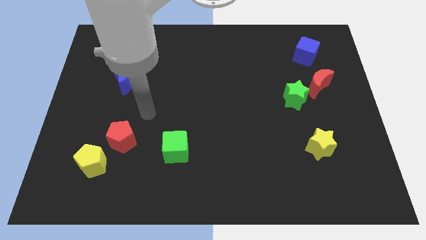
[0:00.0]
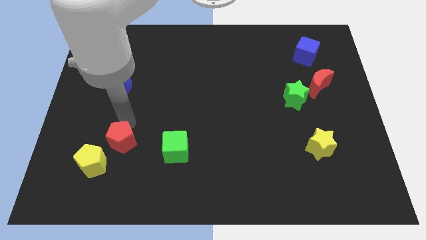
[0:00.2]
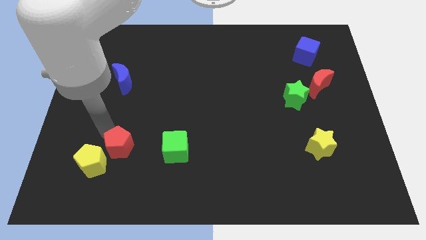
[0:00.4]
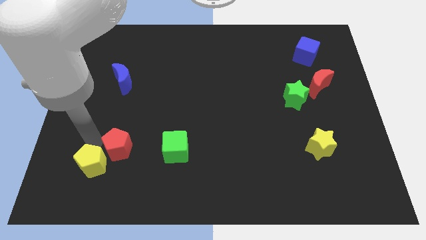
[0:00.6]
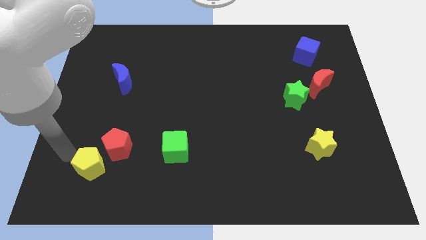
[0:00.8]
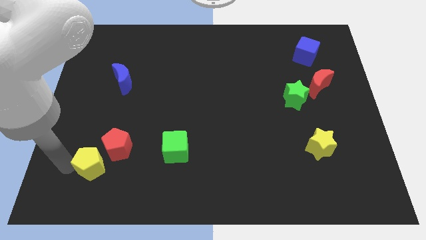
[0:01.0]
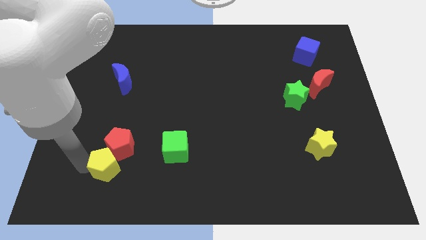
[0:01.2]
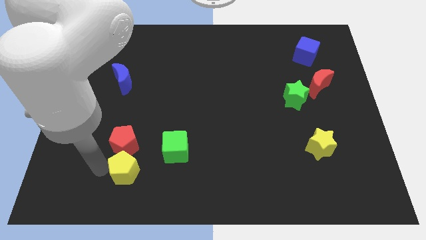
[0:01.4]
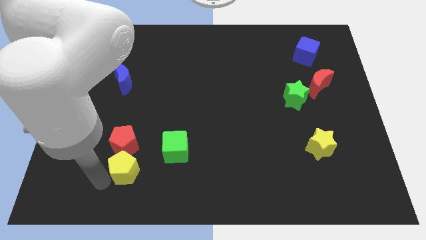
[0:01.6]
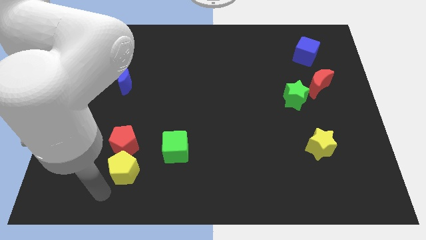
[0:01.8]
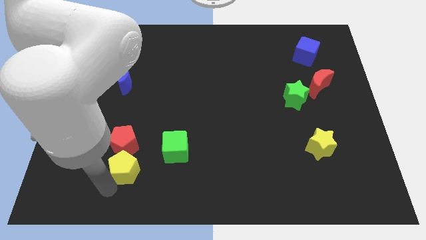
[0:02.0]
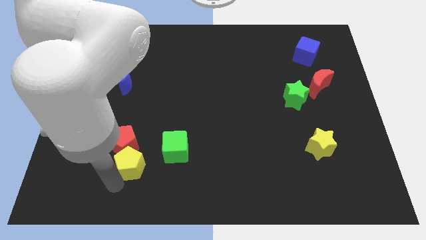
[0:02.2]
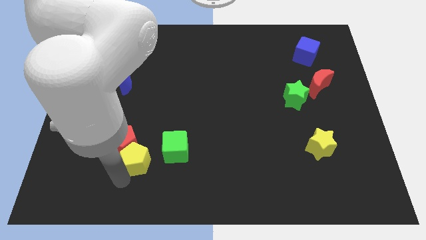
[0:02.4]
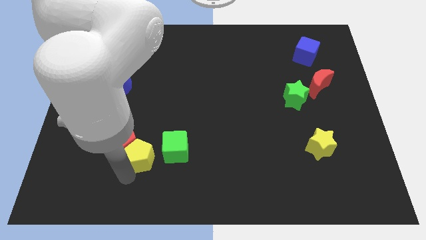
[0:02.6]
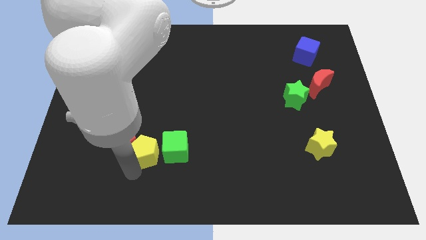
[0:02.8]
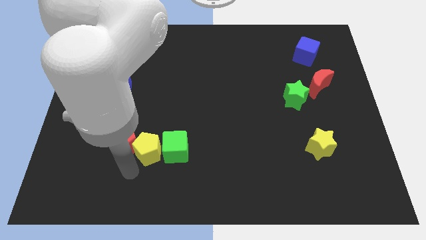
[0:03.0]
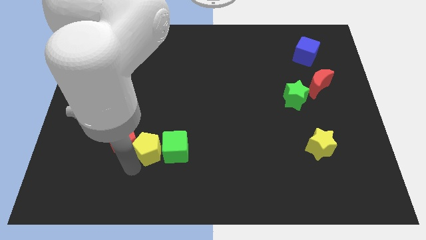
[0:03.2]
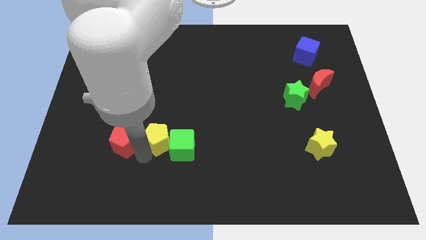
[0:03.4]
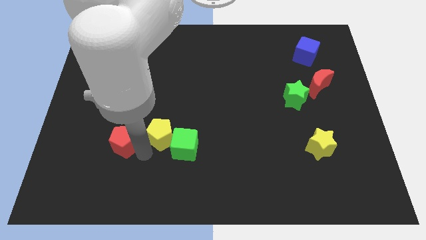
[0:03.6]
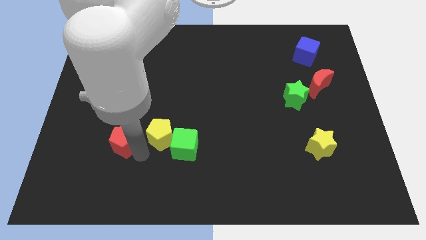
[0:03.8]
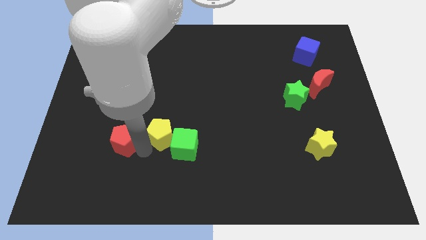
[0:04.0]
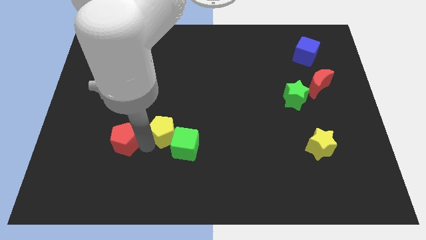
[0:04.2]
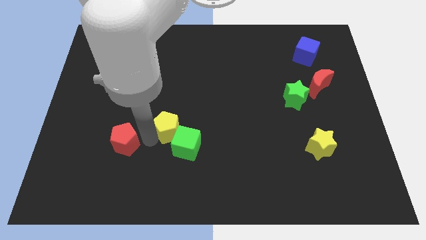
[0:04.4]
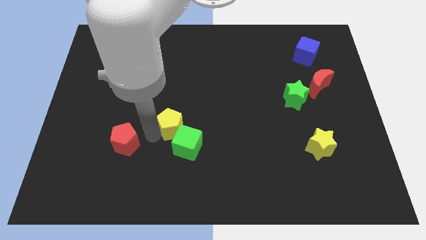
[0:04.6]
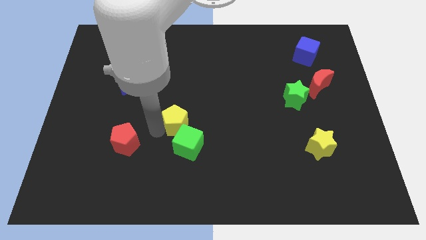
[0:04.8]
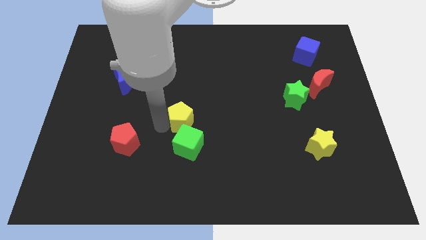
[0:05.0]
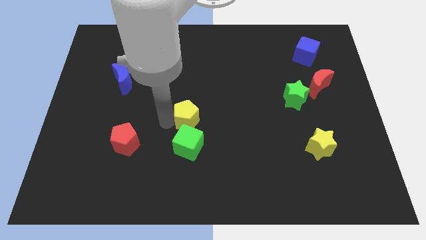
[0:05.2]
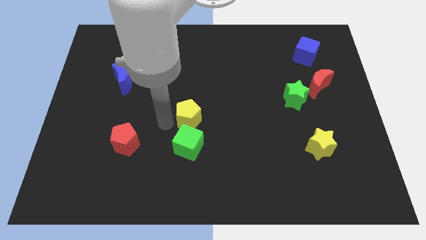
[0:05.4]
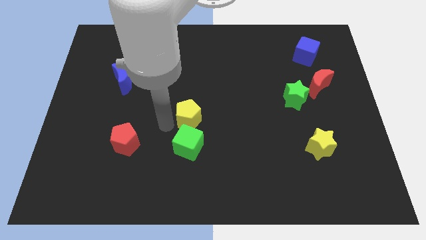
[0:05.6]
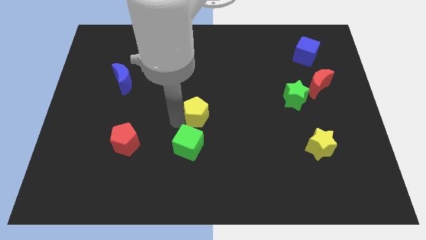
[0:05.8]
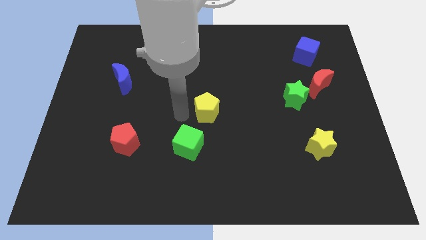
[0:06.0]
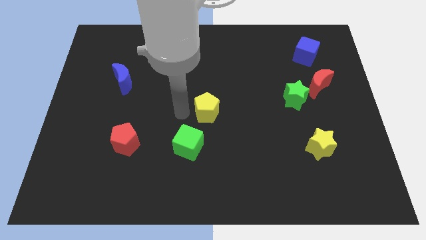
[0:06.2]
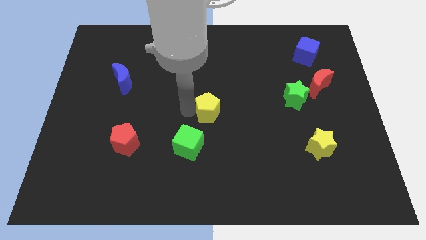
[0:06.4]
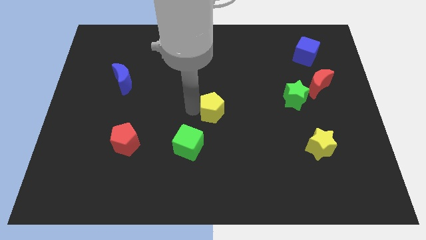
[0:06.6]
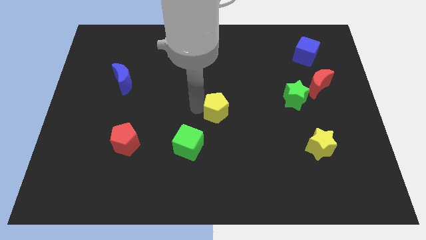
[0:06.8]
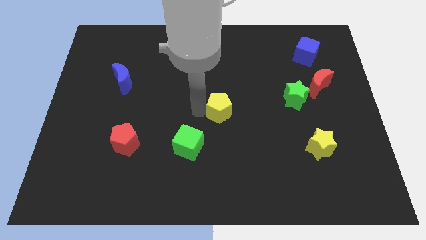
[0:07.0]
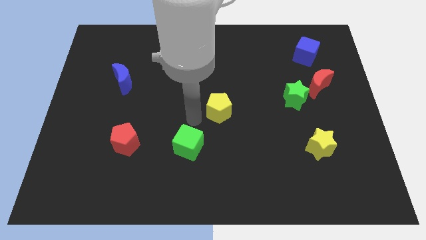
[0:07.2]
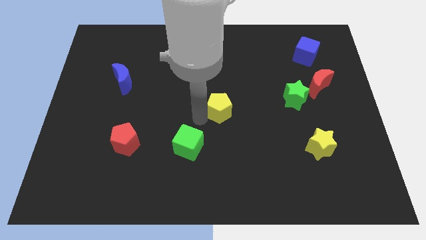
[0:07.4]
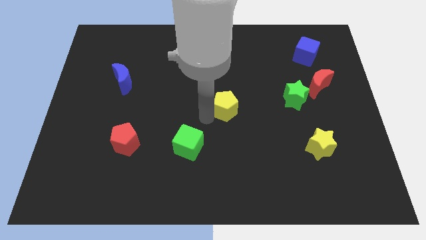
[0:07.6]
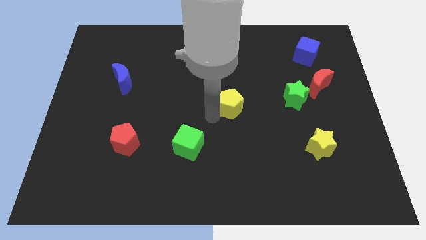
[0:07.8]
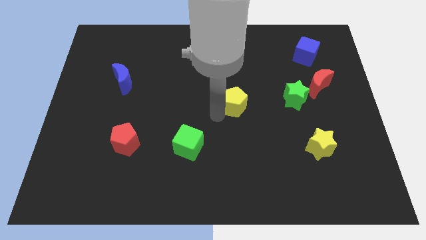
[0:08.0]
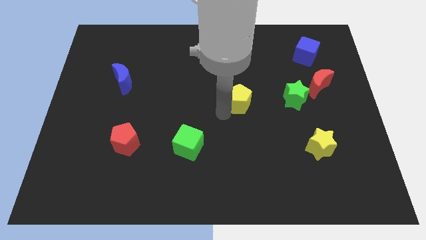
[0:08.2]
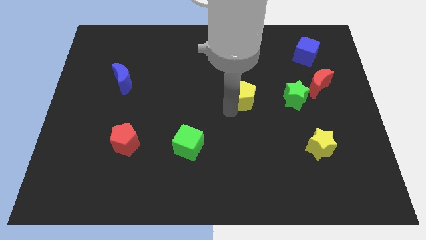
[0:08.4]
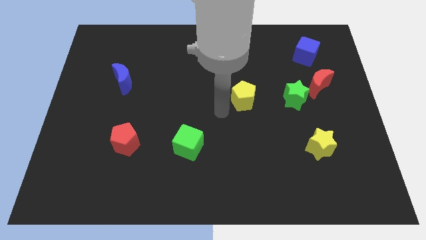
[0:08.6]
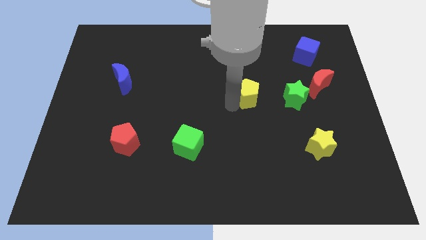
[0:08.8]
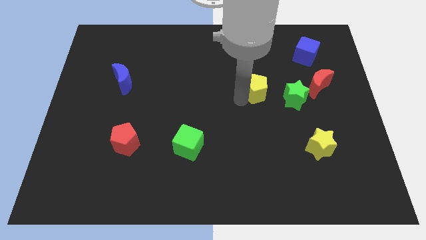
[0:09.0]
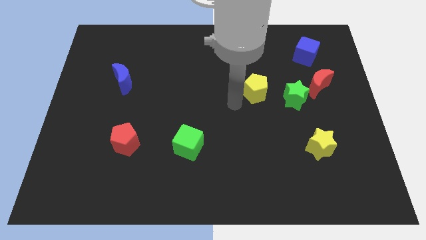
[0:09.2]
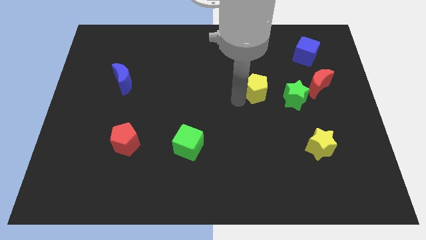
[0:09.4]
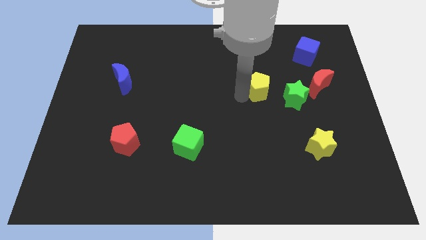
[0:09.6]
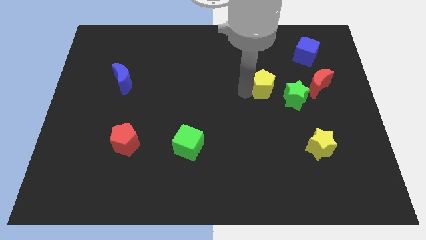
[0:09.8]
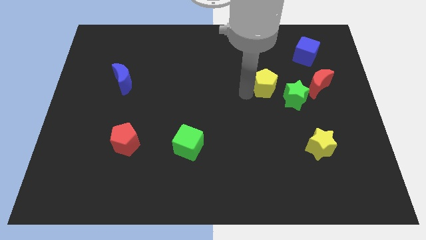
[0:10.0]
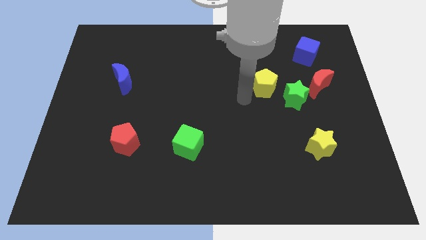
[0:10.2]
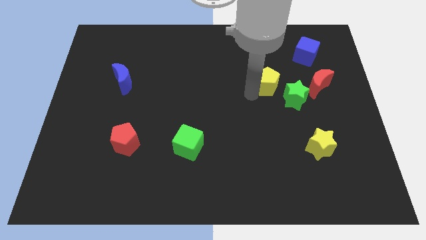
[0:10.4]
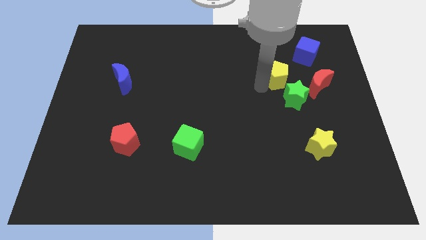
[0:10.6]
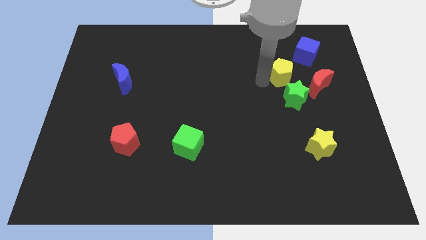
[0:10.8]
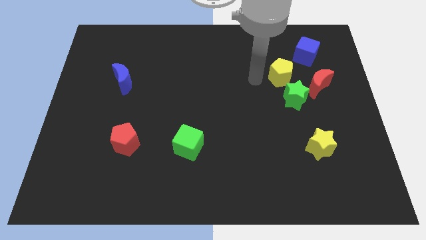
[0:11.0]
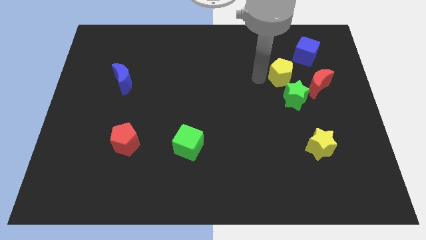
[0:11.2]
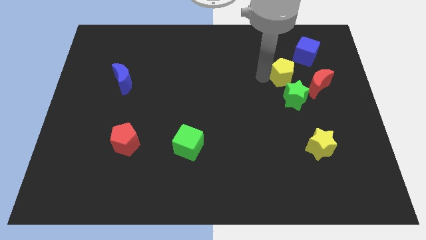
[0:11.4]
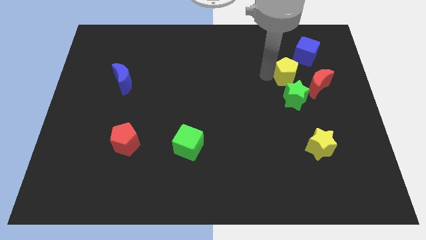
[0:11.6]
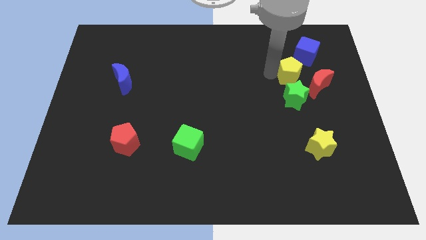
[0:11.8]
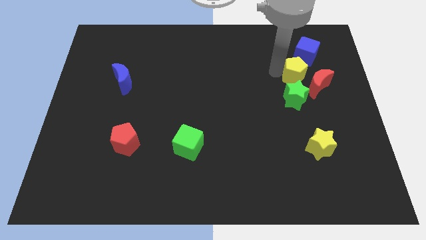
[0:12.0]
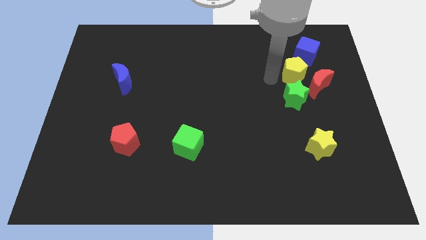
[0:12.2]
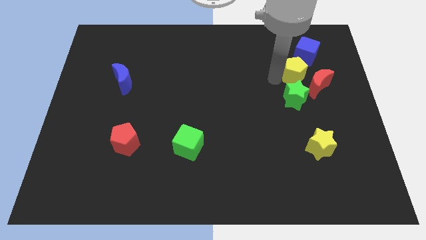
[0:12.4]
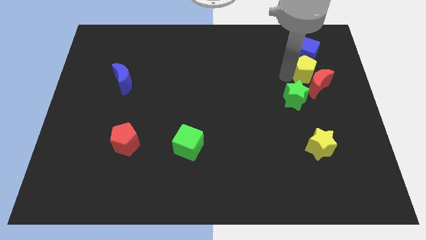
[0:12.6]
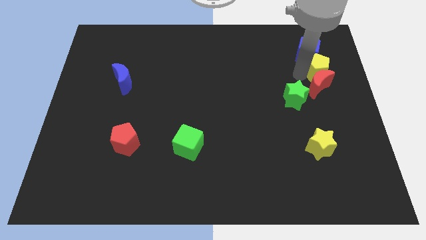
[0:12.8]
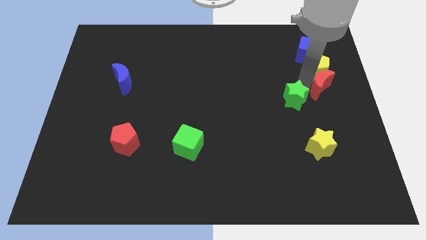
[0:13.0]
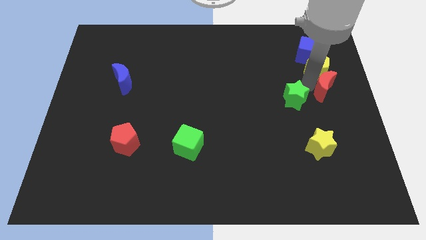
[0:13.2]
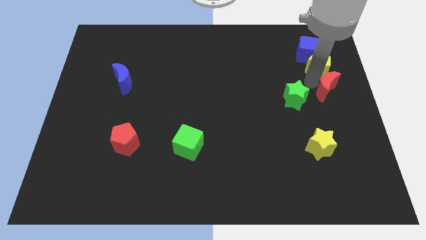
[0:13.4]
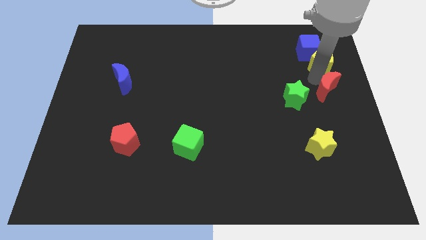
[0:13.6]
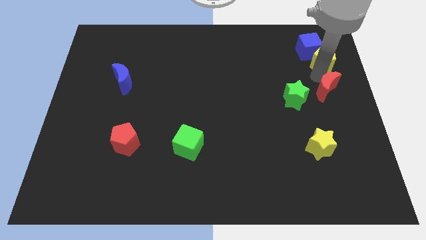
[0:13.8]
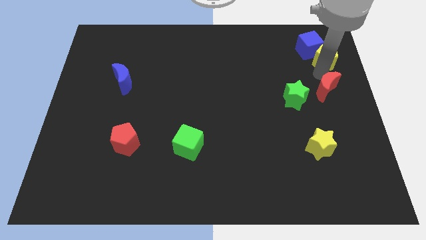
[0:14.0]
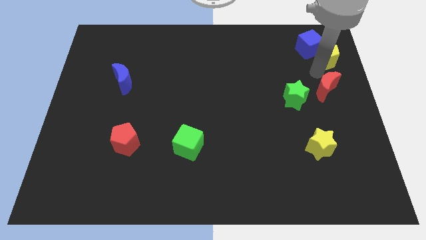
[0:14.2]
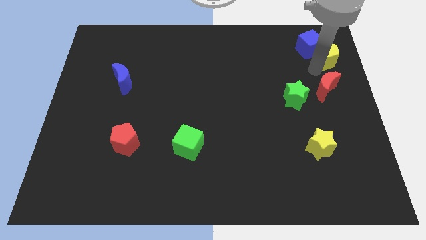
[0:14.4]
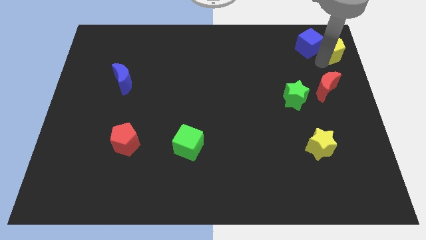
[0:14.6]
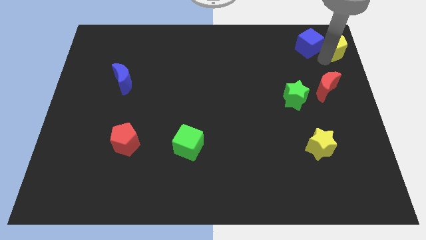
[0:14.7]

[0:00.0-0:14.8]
move the yellow pentagon to the top right corner
